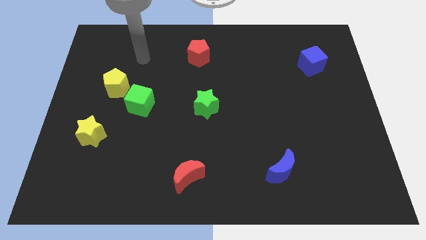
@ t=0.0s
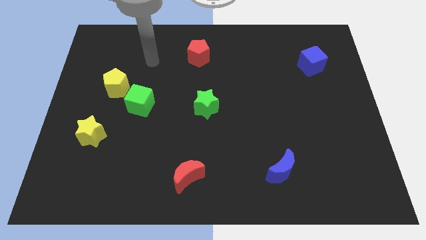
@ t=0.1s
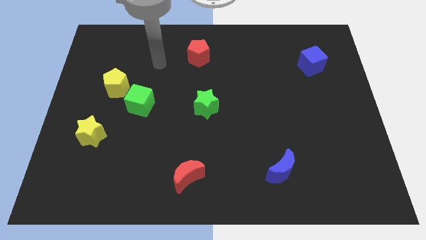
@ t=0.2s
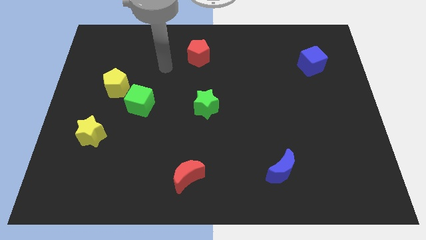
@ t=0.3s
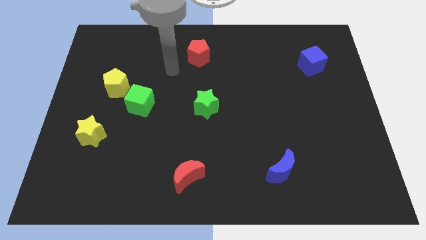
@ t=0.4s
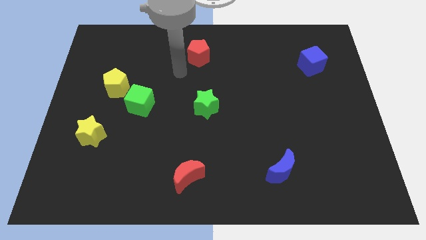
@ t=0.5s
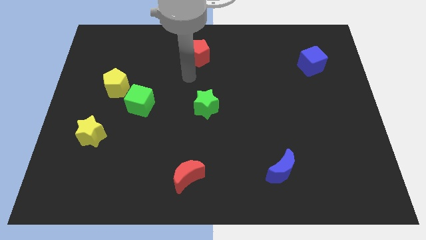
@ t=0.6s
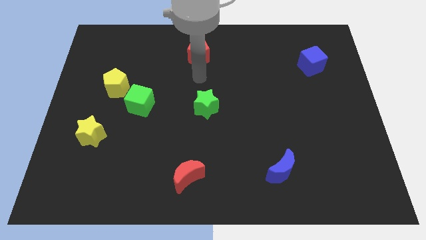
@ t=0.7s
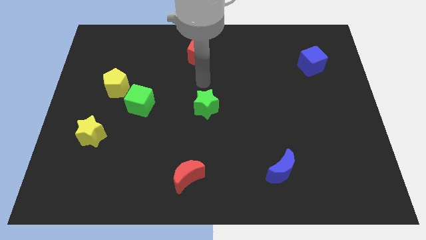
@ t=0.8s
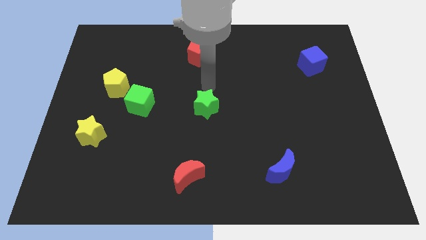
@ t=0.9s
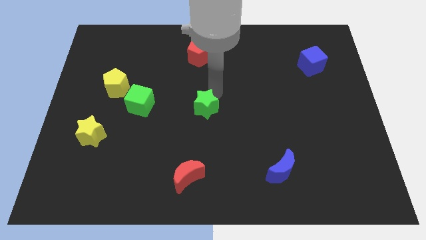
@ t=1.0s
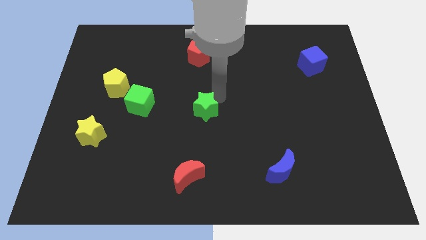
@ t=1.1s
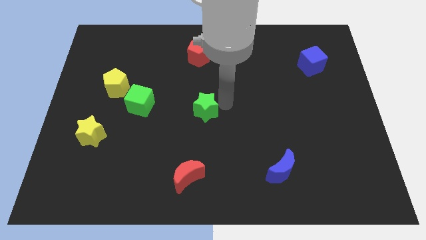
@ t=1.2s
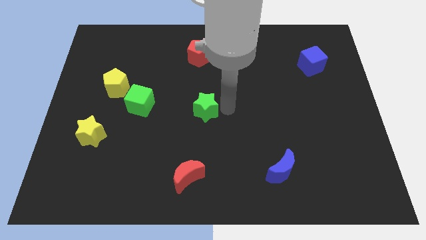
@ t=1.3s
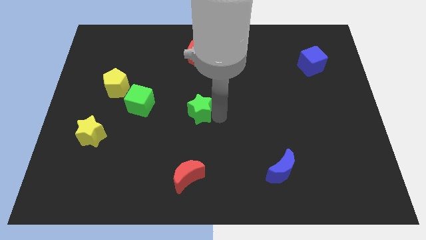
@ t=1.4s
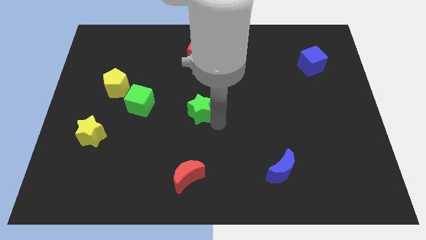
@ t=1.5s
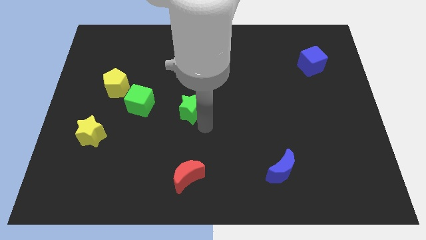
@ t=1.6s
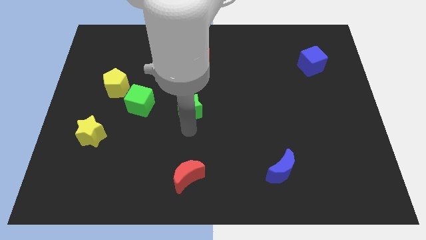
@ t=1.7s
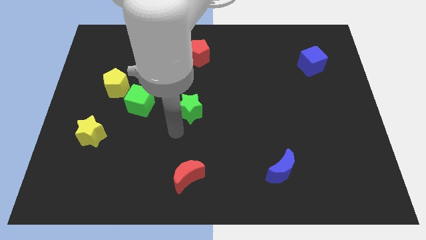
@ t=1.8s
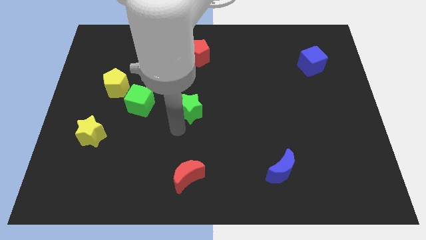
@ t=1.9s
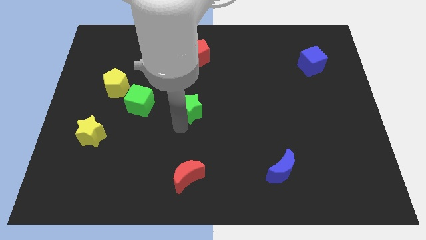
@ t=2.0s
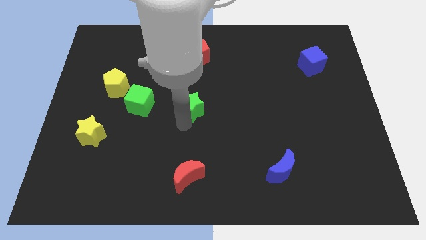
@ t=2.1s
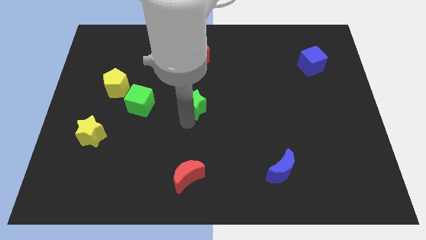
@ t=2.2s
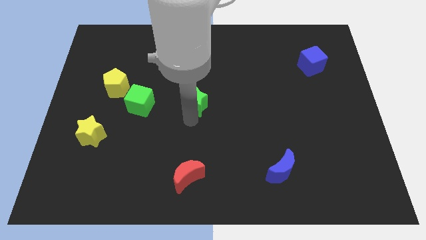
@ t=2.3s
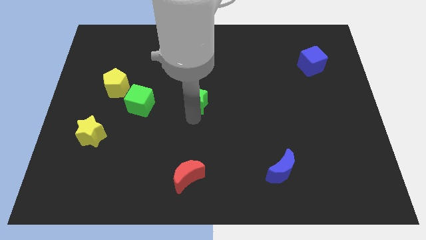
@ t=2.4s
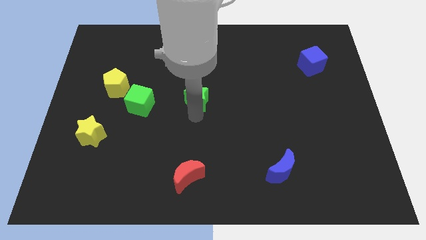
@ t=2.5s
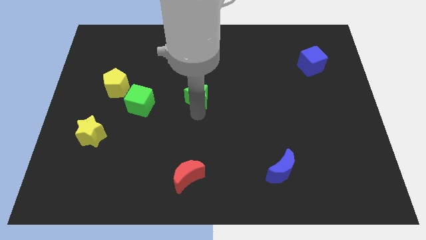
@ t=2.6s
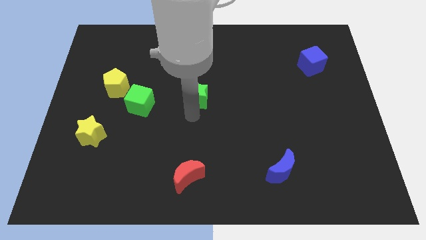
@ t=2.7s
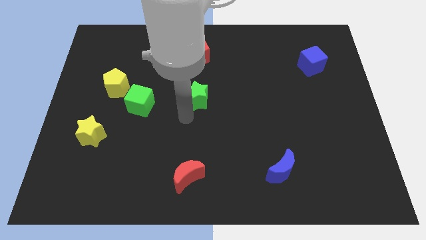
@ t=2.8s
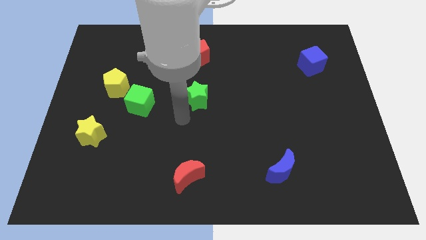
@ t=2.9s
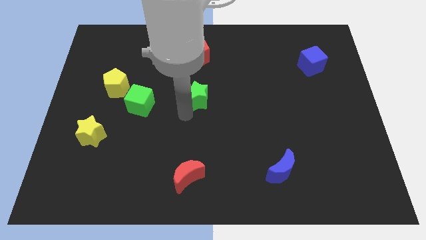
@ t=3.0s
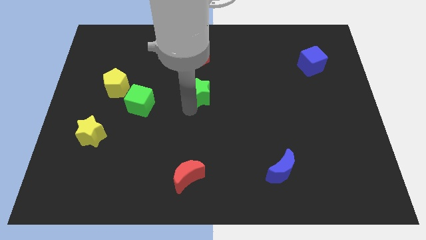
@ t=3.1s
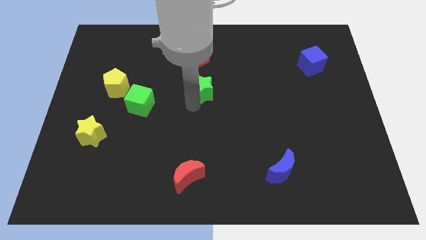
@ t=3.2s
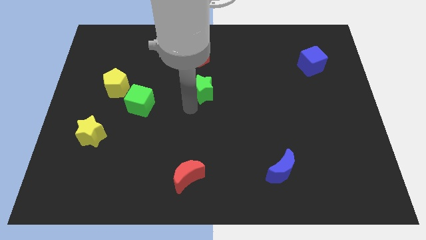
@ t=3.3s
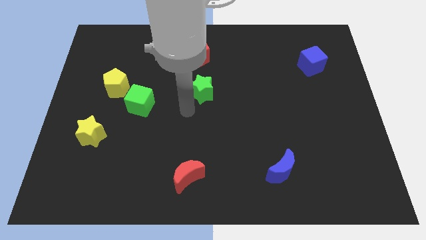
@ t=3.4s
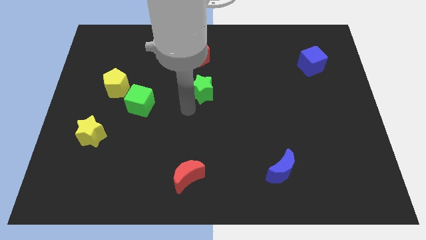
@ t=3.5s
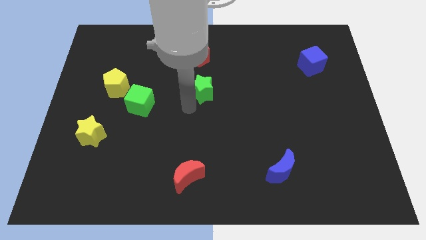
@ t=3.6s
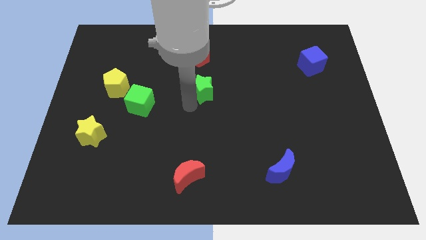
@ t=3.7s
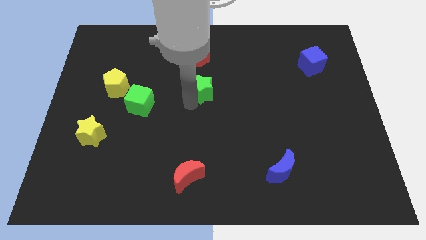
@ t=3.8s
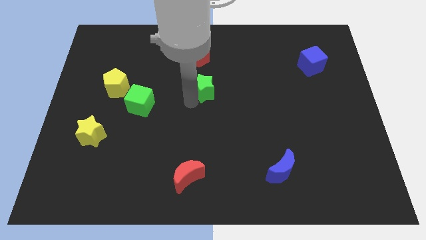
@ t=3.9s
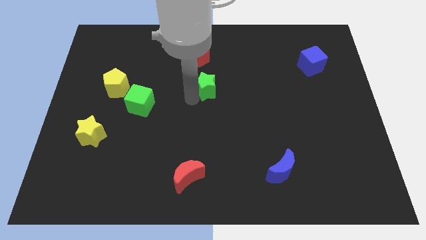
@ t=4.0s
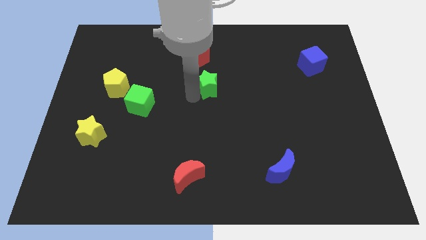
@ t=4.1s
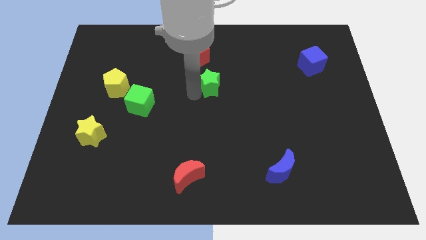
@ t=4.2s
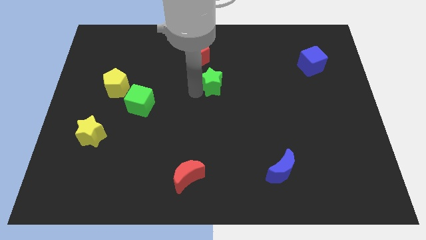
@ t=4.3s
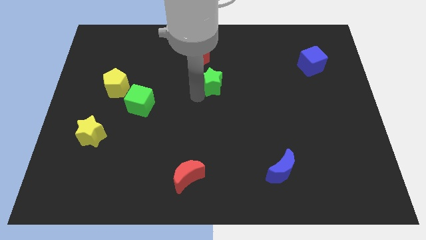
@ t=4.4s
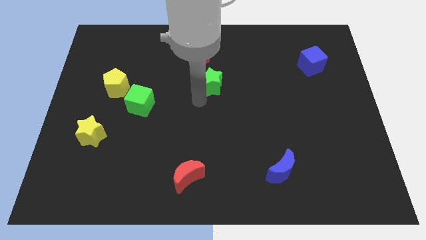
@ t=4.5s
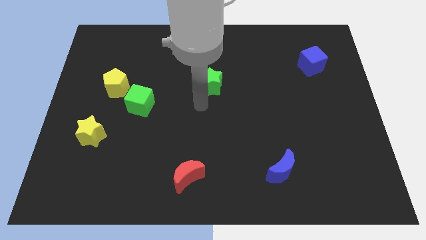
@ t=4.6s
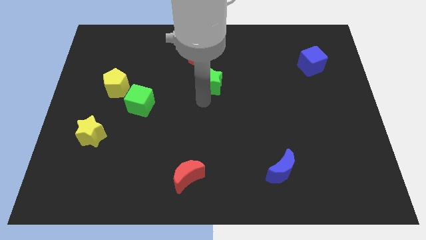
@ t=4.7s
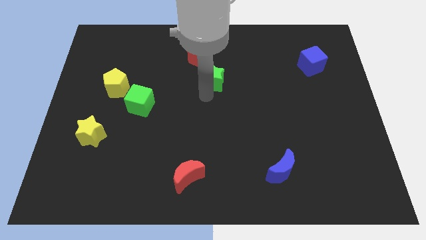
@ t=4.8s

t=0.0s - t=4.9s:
move the green star to the bottom right of the red pentagon

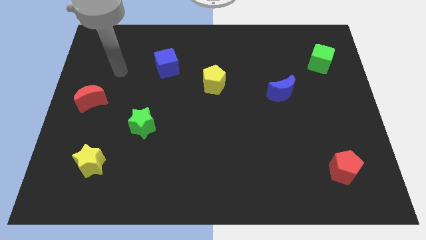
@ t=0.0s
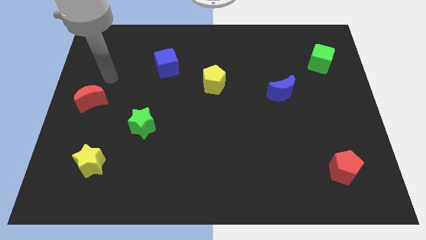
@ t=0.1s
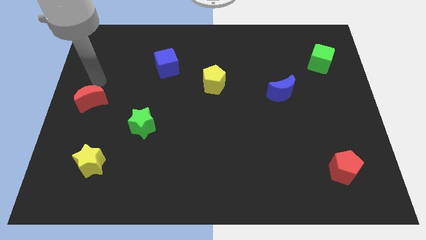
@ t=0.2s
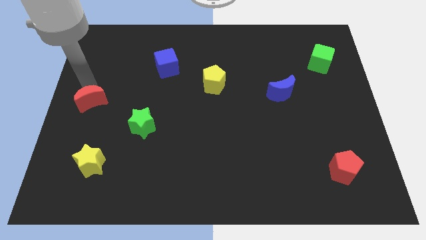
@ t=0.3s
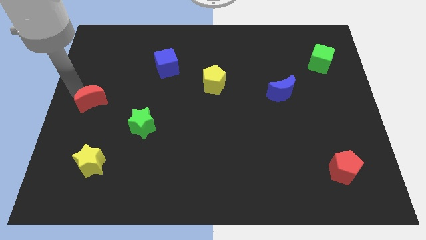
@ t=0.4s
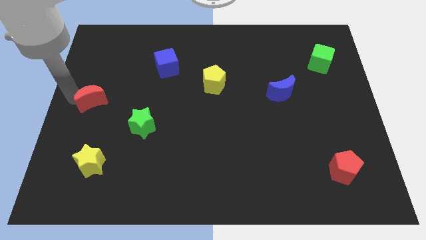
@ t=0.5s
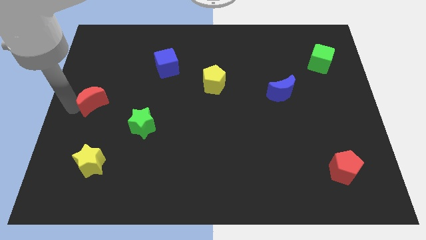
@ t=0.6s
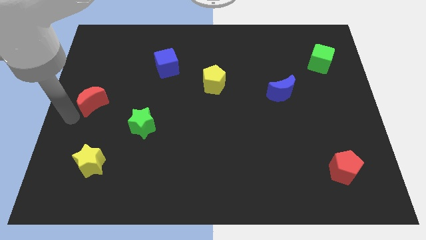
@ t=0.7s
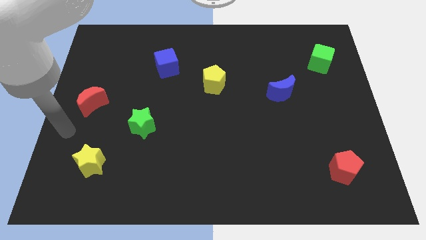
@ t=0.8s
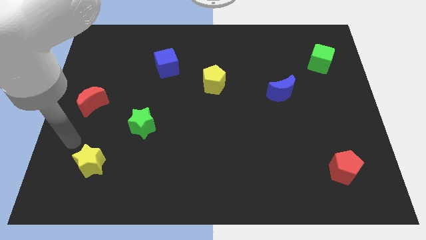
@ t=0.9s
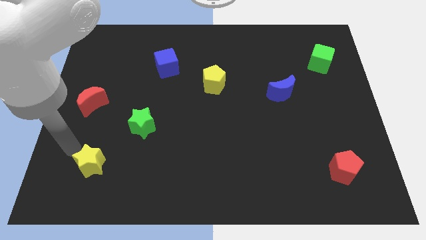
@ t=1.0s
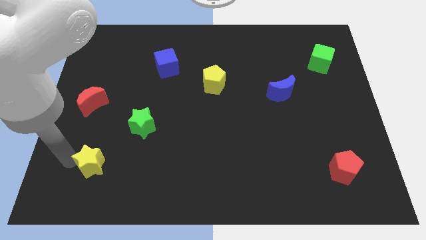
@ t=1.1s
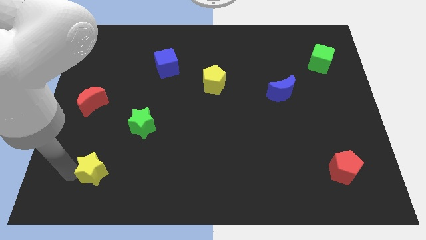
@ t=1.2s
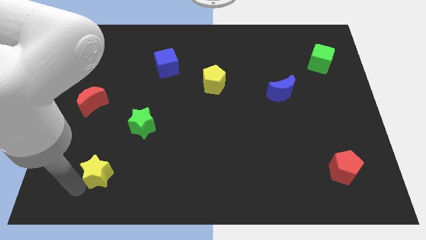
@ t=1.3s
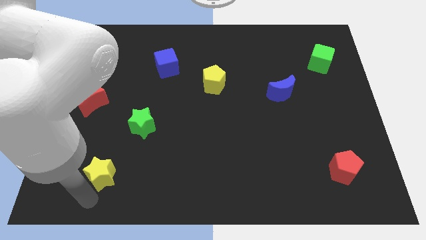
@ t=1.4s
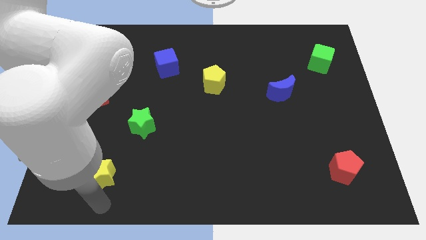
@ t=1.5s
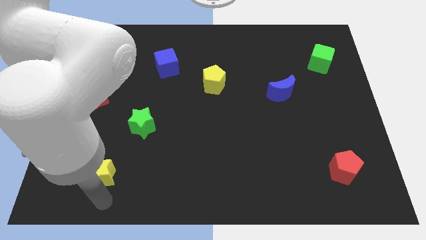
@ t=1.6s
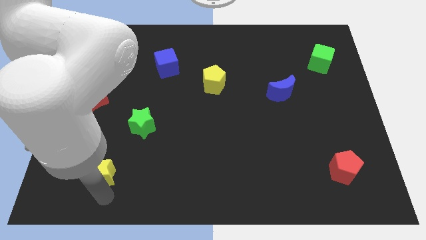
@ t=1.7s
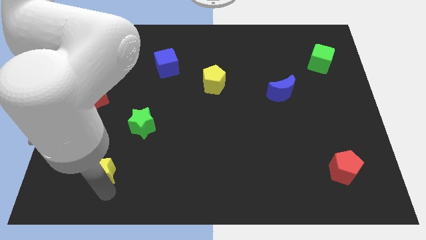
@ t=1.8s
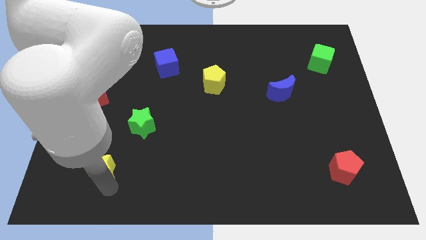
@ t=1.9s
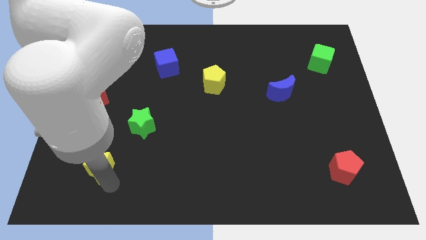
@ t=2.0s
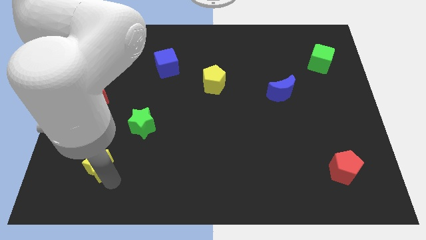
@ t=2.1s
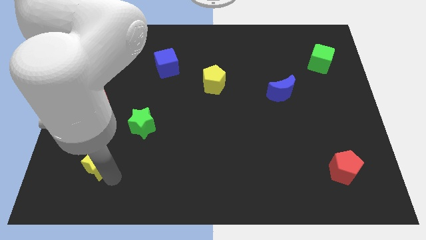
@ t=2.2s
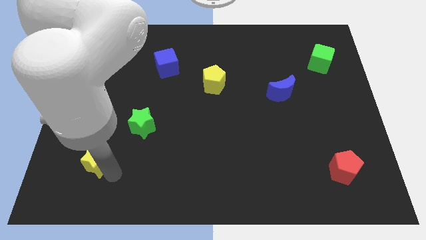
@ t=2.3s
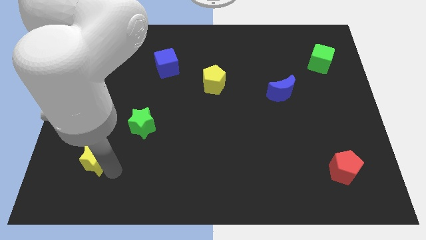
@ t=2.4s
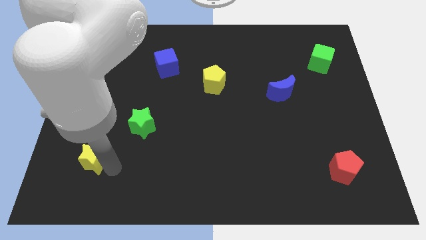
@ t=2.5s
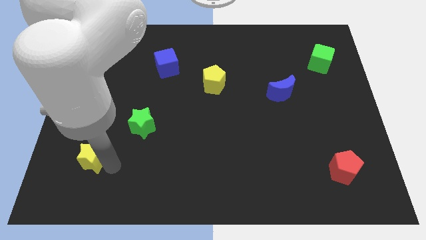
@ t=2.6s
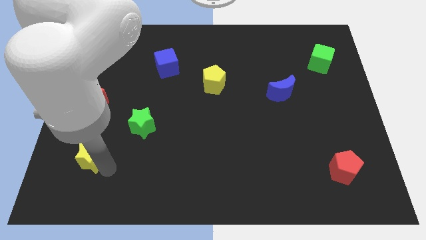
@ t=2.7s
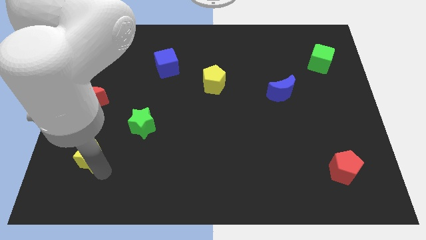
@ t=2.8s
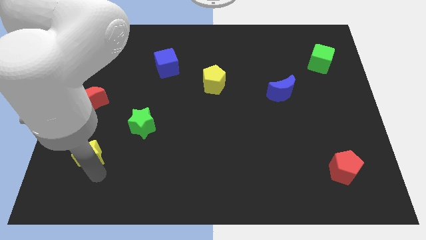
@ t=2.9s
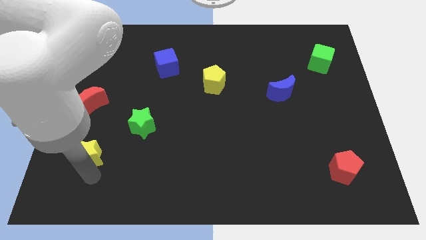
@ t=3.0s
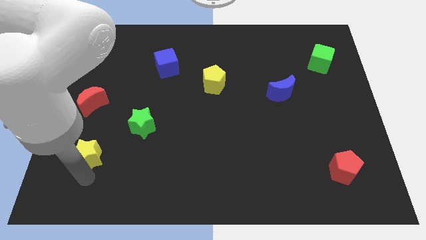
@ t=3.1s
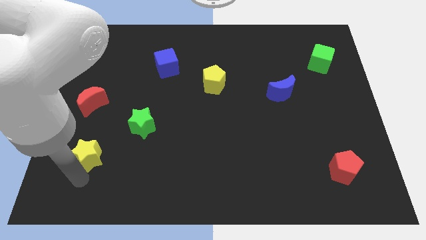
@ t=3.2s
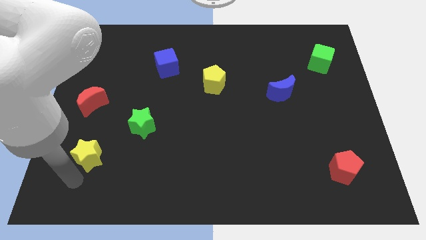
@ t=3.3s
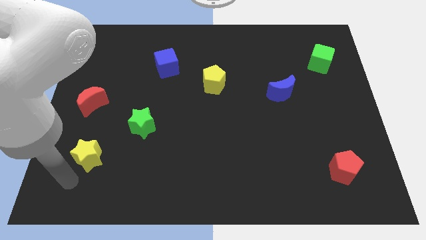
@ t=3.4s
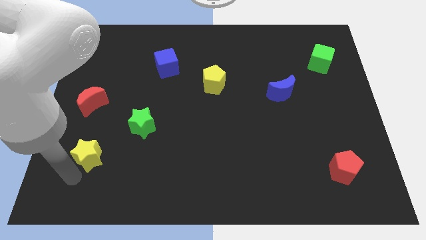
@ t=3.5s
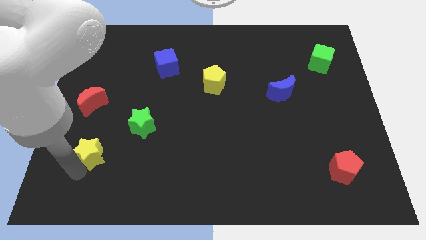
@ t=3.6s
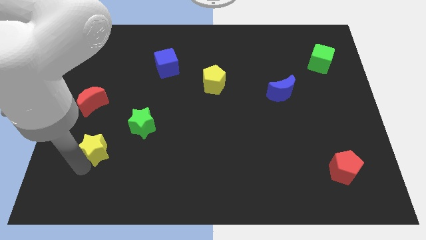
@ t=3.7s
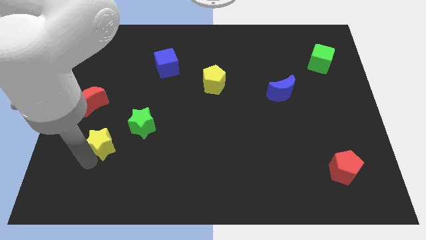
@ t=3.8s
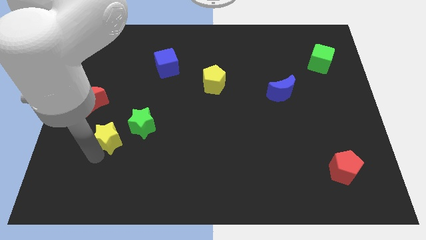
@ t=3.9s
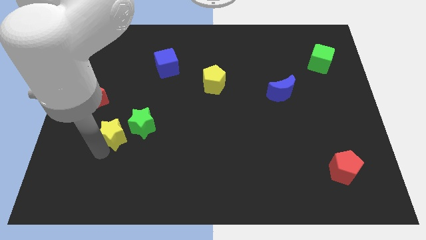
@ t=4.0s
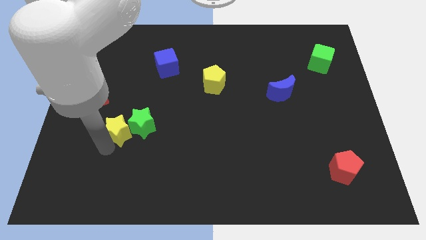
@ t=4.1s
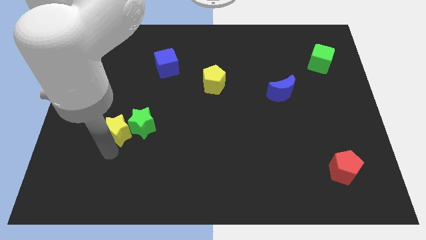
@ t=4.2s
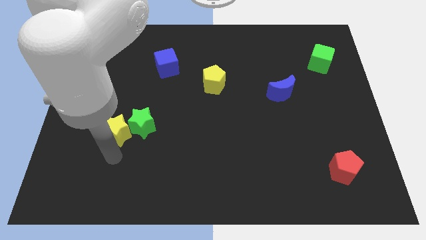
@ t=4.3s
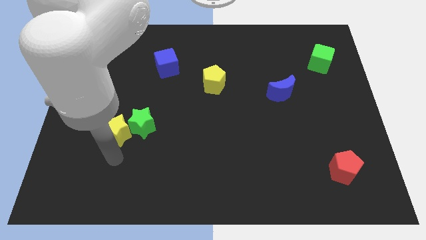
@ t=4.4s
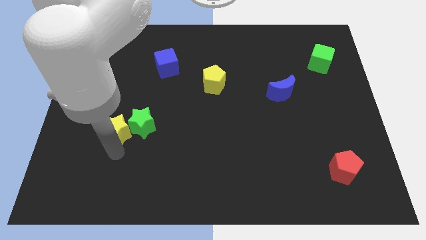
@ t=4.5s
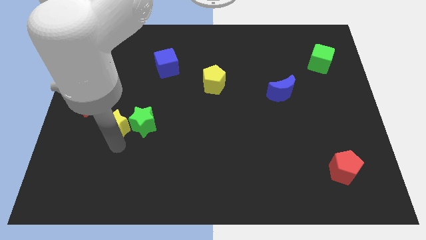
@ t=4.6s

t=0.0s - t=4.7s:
slide the yellow star diagonally up and to the left of the green star
